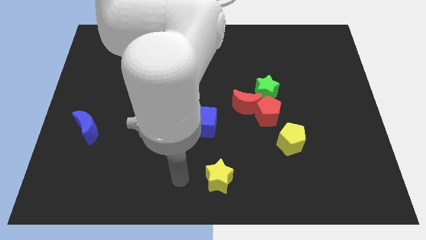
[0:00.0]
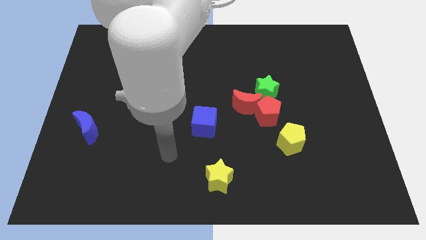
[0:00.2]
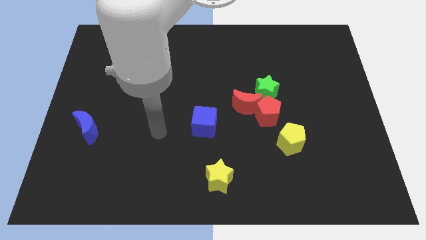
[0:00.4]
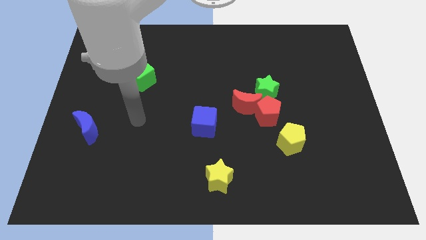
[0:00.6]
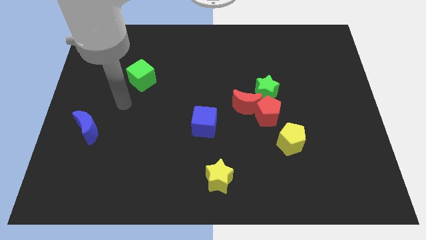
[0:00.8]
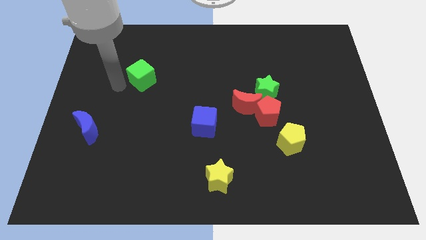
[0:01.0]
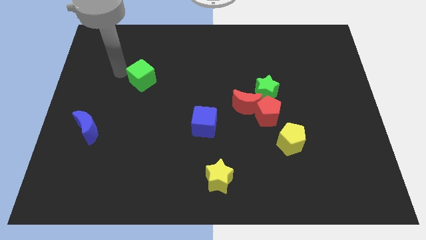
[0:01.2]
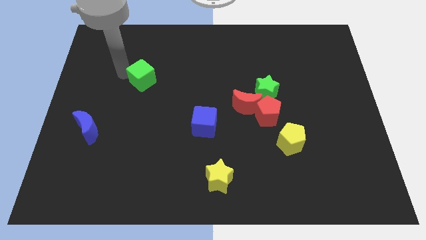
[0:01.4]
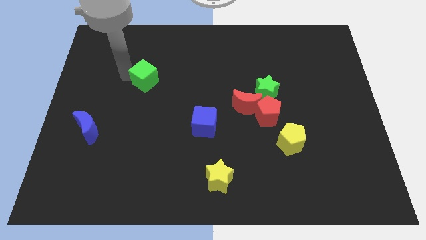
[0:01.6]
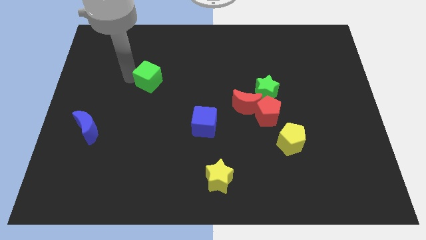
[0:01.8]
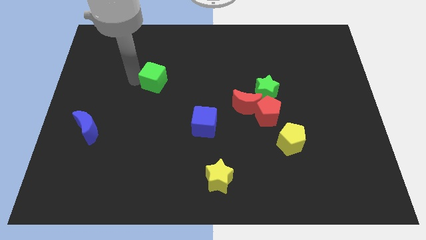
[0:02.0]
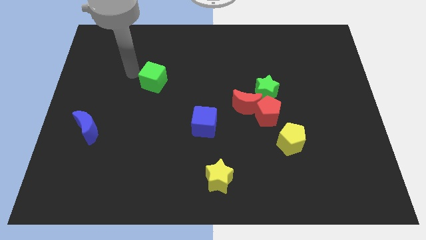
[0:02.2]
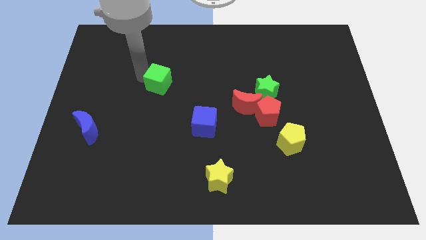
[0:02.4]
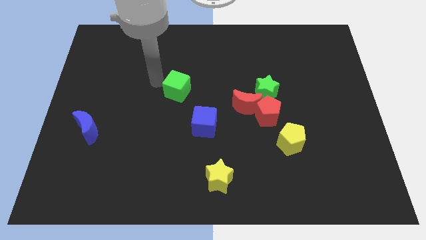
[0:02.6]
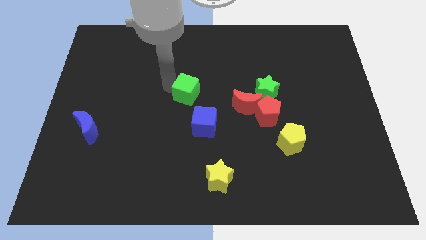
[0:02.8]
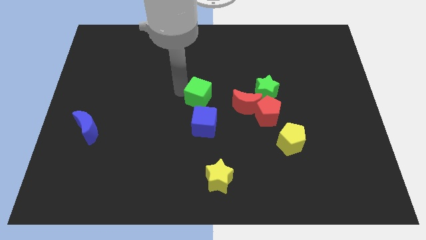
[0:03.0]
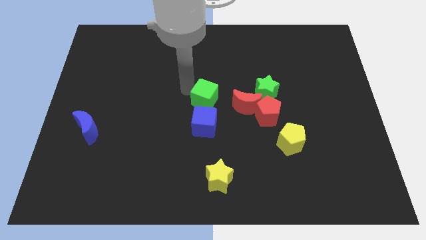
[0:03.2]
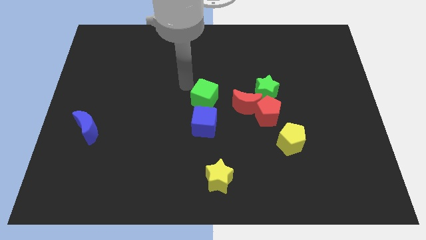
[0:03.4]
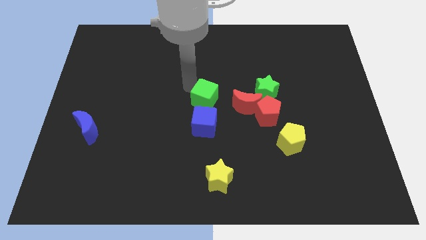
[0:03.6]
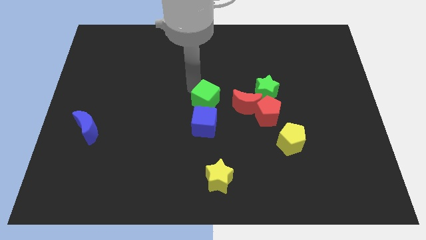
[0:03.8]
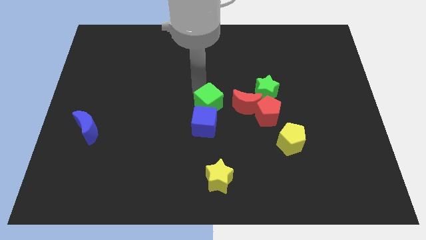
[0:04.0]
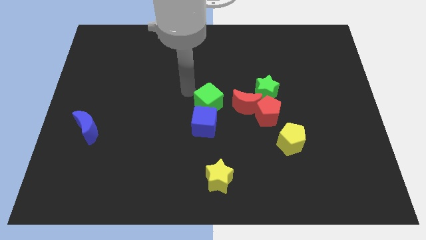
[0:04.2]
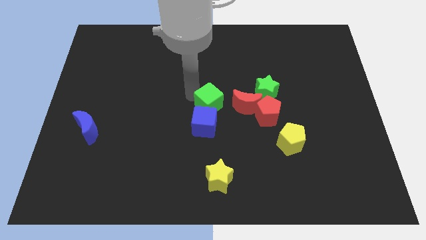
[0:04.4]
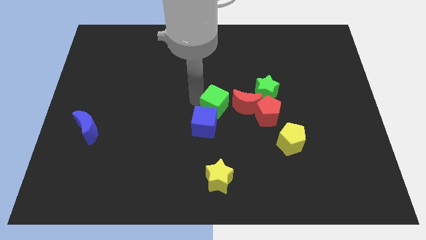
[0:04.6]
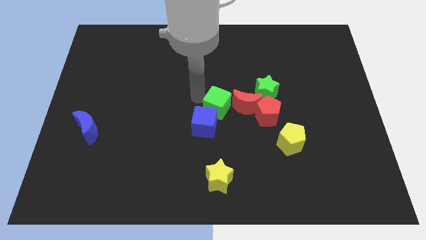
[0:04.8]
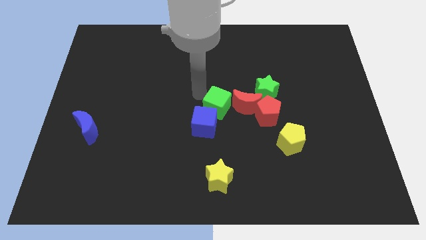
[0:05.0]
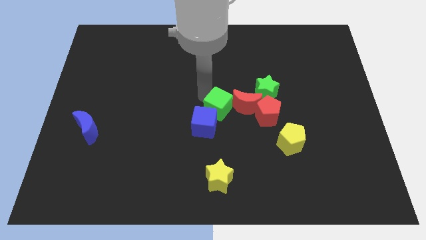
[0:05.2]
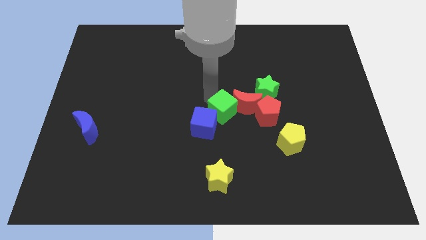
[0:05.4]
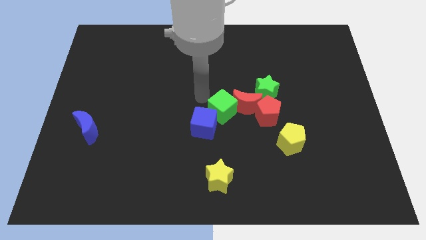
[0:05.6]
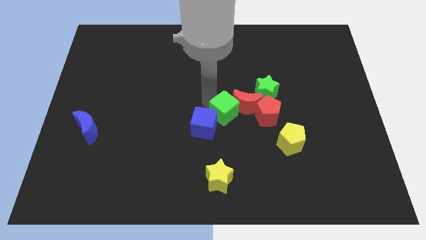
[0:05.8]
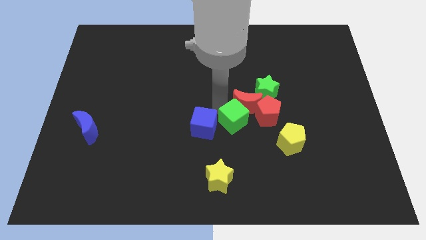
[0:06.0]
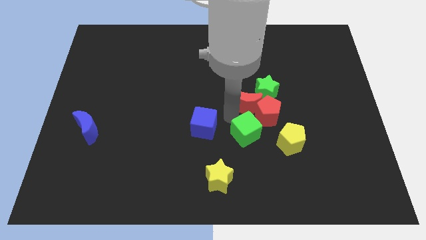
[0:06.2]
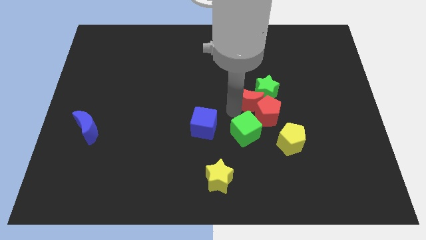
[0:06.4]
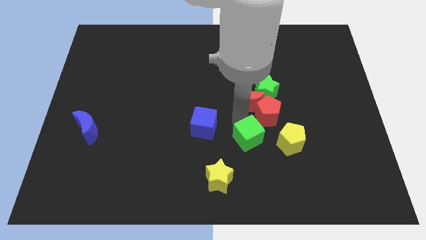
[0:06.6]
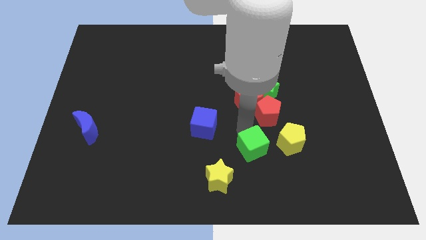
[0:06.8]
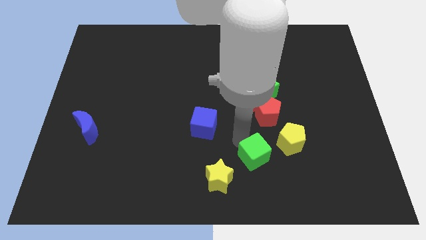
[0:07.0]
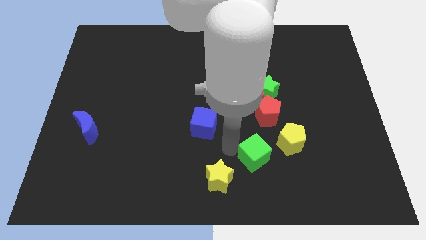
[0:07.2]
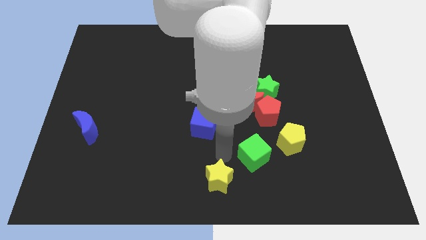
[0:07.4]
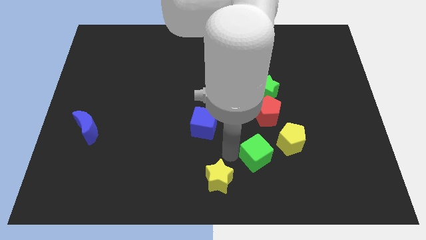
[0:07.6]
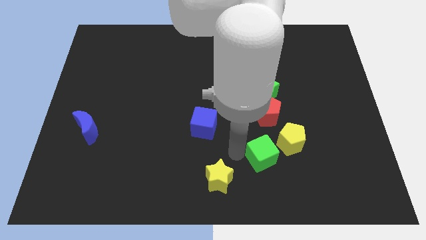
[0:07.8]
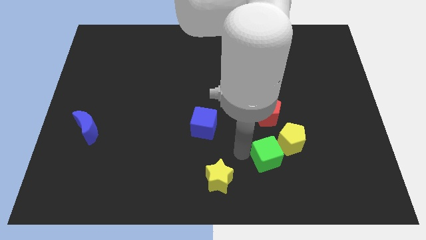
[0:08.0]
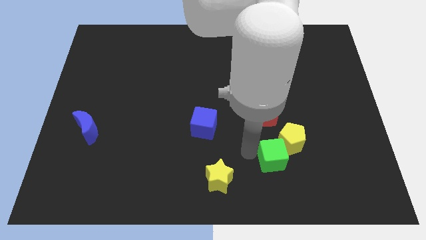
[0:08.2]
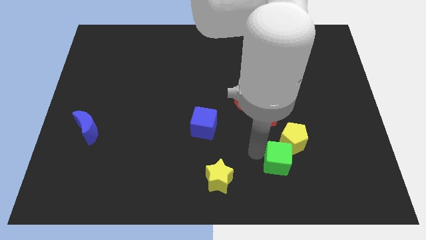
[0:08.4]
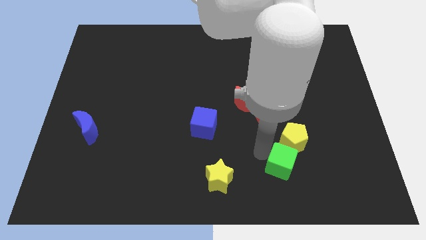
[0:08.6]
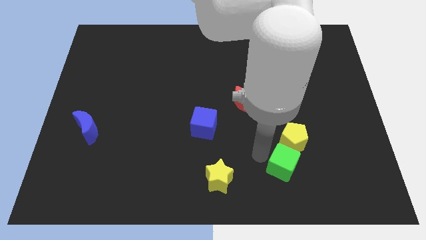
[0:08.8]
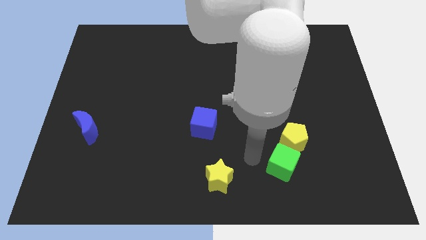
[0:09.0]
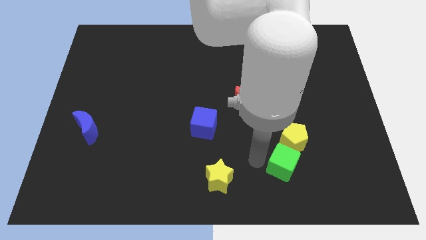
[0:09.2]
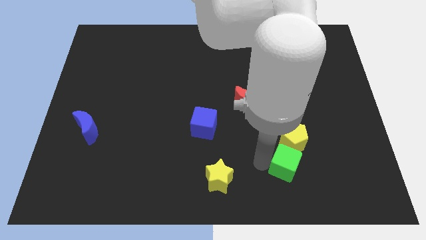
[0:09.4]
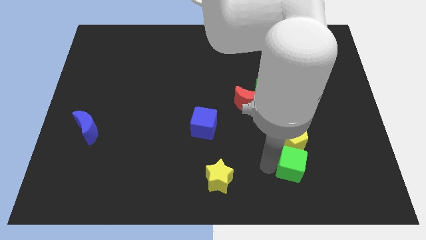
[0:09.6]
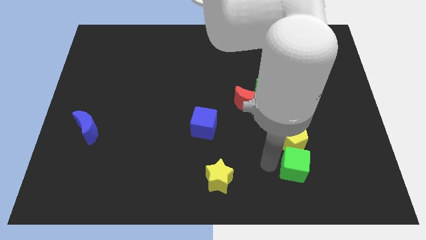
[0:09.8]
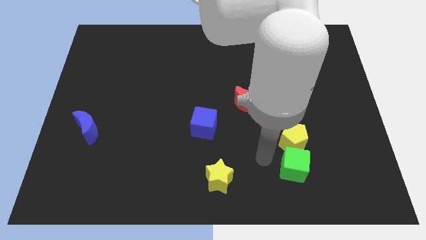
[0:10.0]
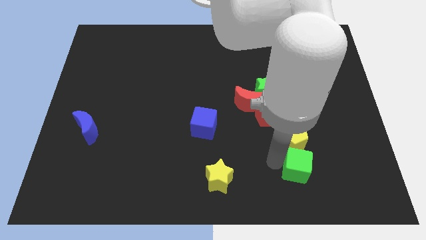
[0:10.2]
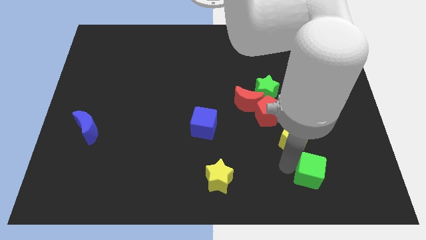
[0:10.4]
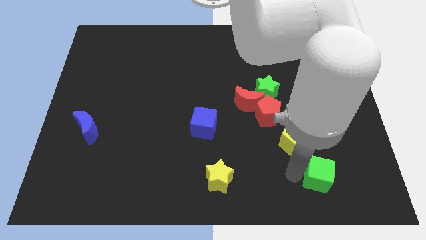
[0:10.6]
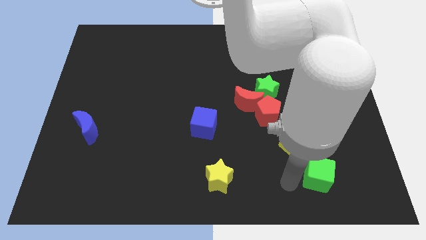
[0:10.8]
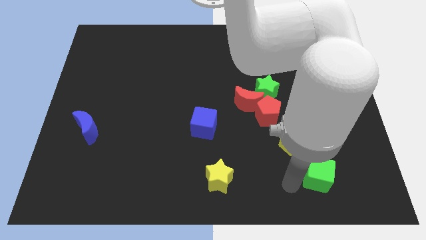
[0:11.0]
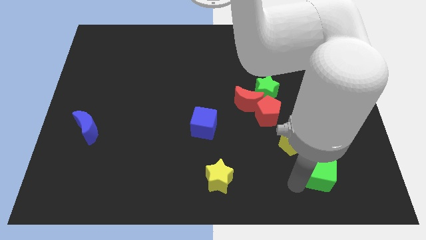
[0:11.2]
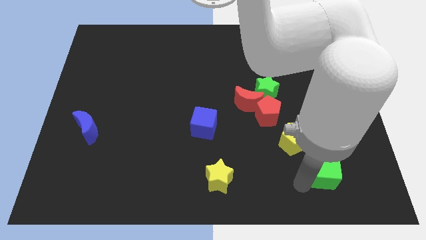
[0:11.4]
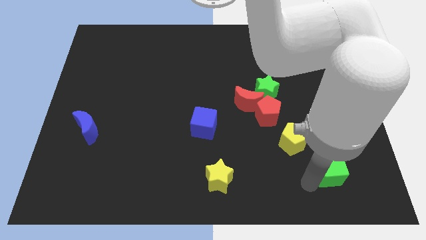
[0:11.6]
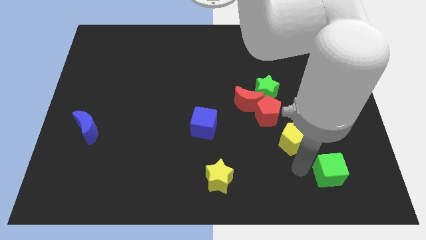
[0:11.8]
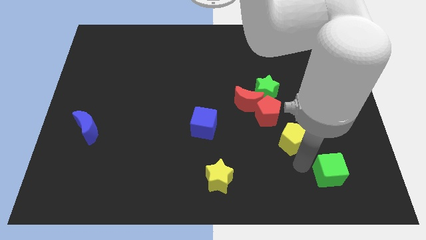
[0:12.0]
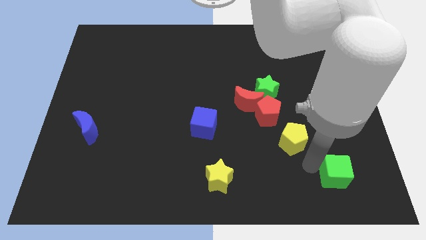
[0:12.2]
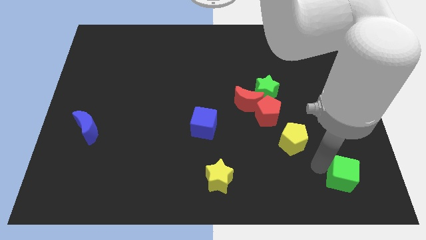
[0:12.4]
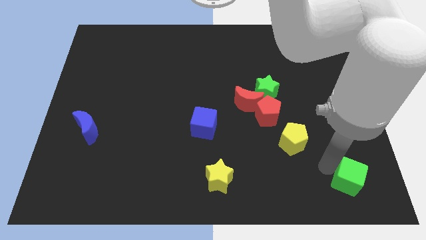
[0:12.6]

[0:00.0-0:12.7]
slide the green cube to the lower right corner
